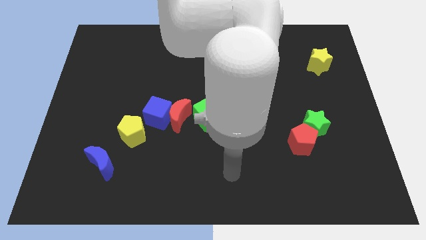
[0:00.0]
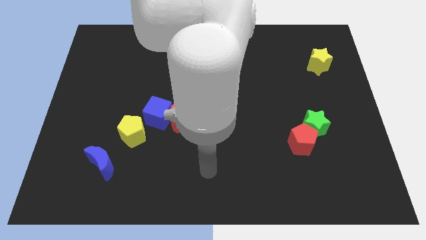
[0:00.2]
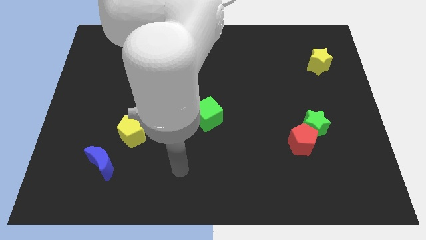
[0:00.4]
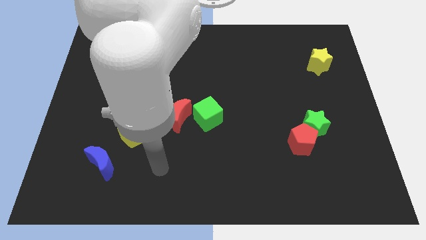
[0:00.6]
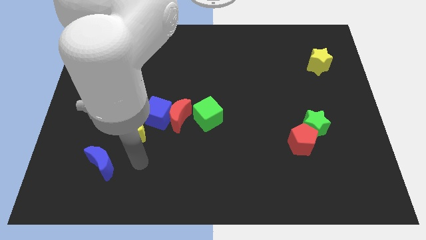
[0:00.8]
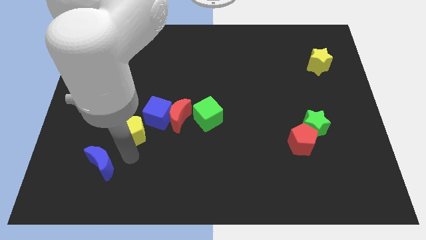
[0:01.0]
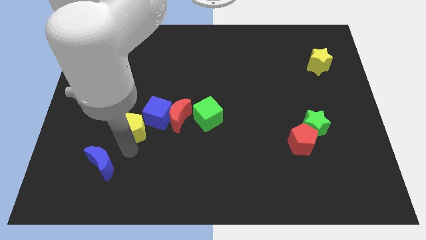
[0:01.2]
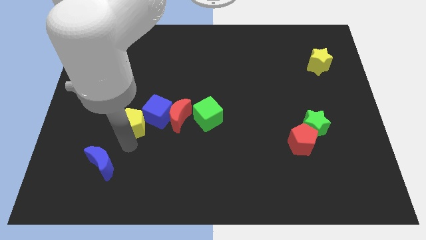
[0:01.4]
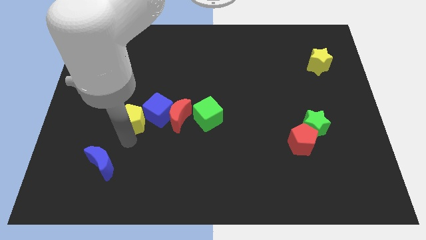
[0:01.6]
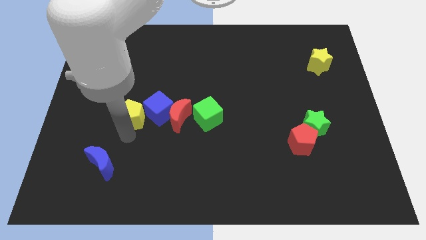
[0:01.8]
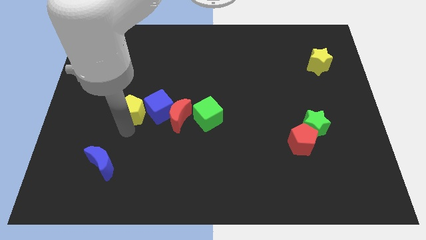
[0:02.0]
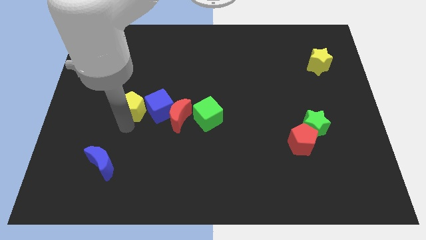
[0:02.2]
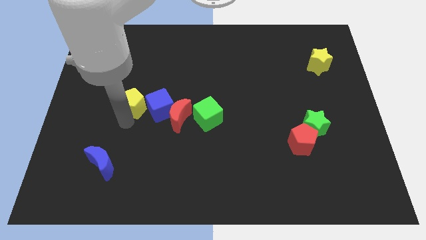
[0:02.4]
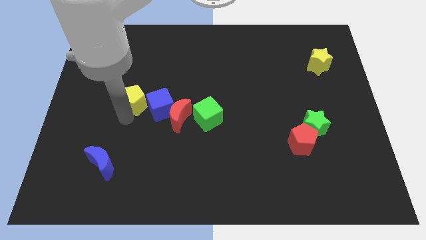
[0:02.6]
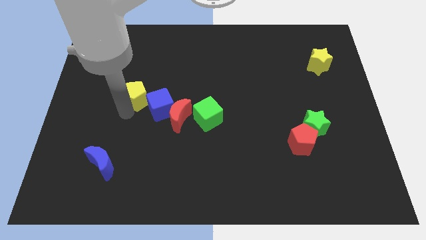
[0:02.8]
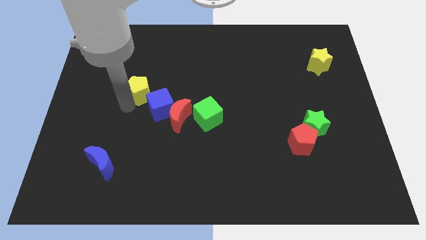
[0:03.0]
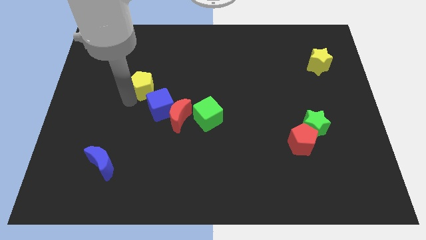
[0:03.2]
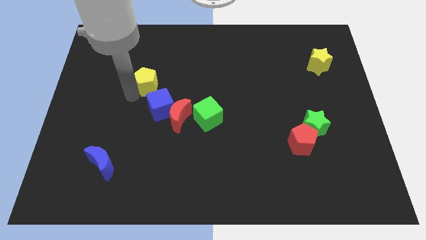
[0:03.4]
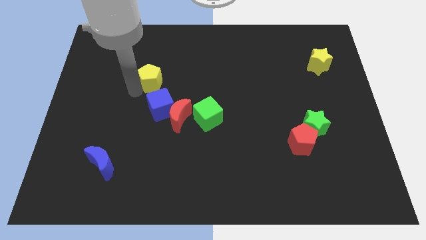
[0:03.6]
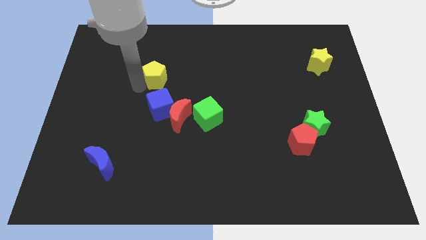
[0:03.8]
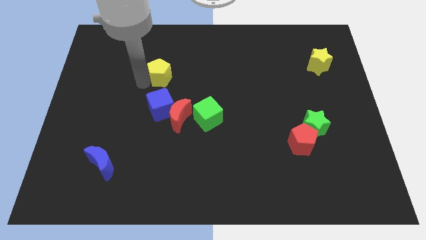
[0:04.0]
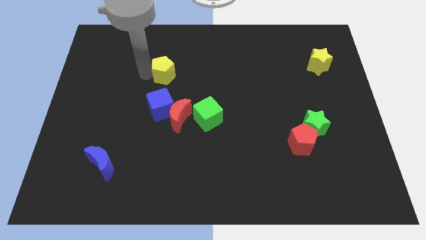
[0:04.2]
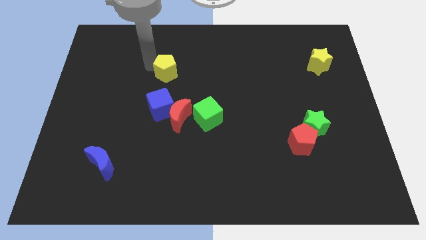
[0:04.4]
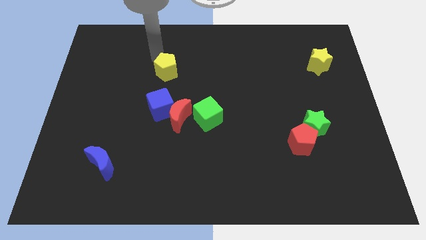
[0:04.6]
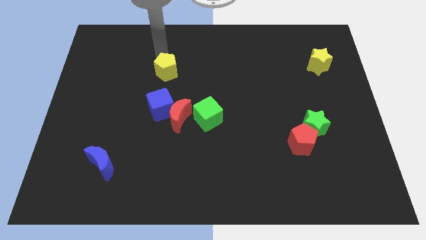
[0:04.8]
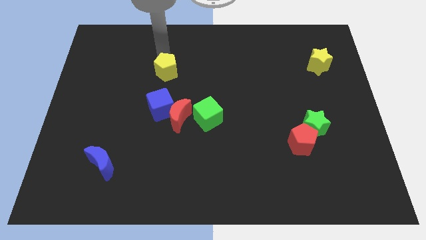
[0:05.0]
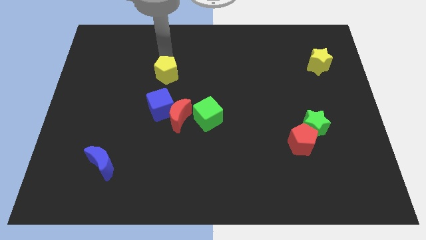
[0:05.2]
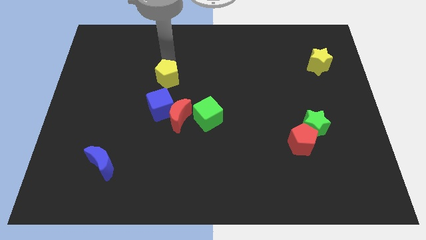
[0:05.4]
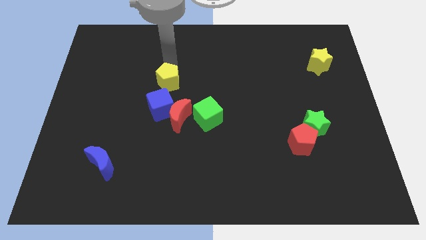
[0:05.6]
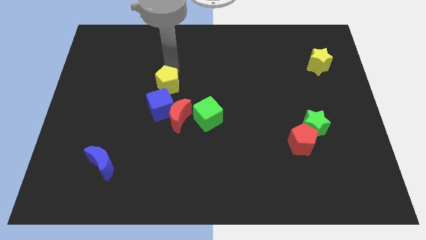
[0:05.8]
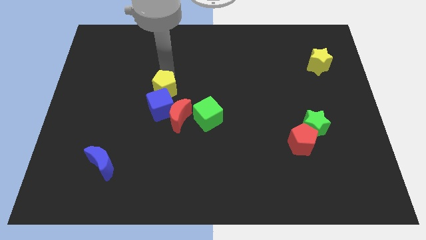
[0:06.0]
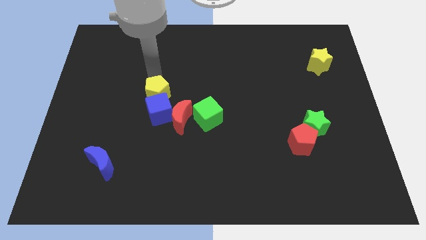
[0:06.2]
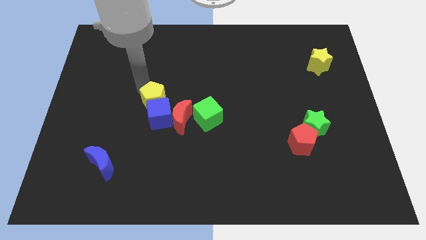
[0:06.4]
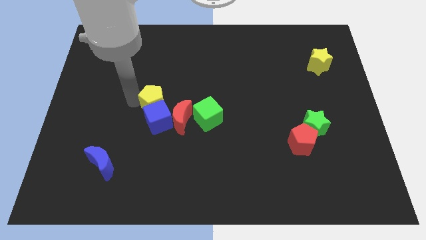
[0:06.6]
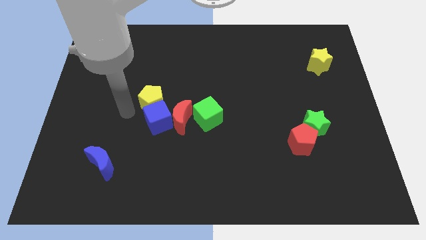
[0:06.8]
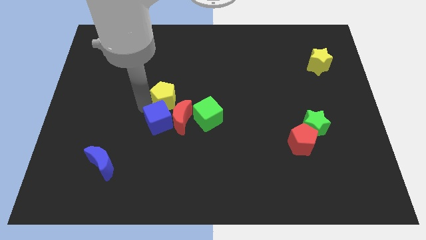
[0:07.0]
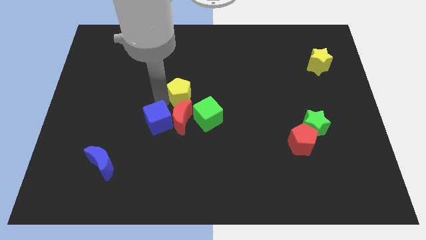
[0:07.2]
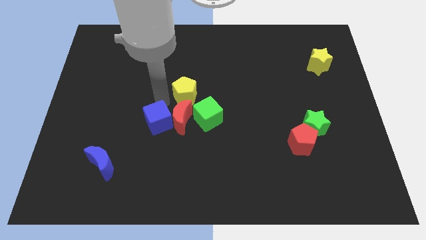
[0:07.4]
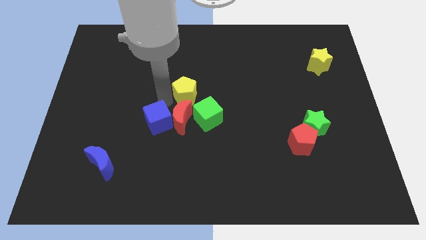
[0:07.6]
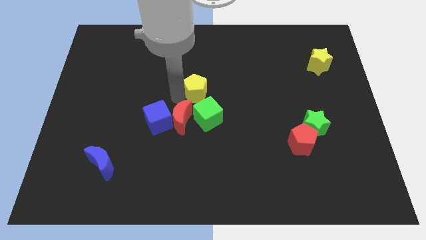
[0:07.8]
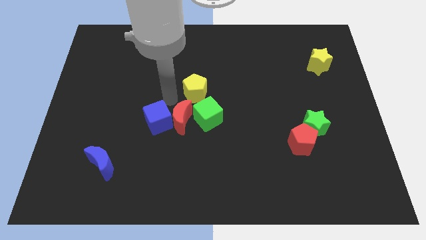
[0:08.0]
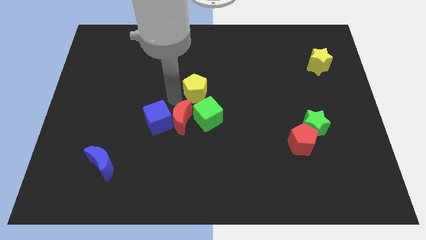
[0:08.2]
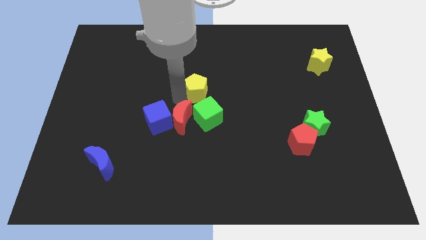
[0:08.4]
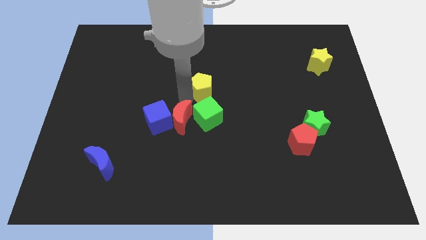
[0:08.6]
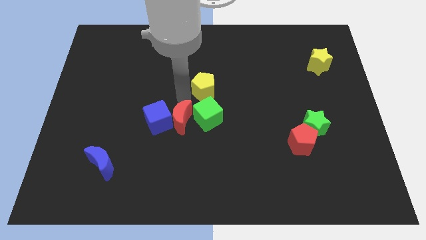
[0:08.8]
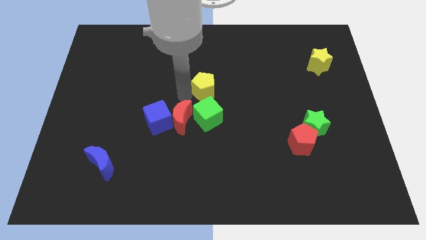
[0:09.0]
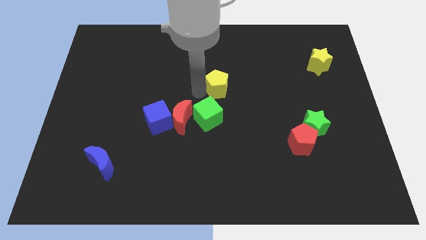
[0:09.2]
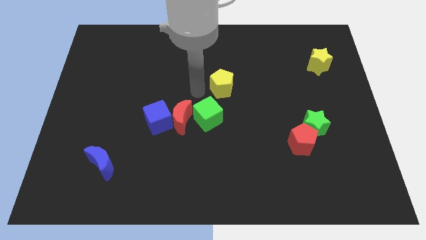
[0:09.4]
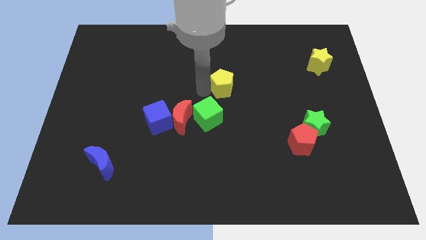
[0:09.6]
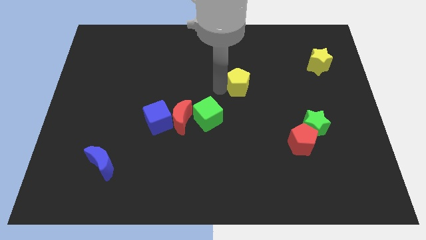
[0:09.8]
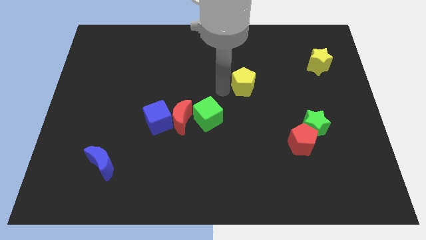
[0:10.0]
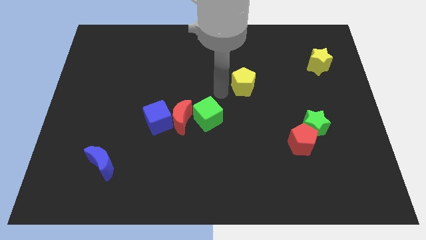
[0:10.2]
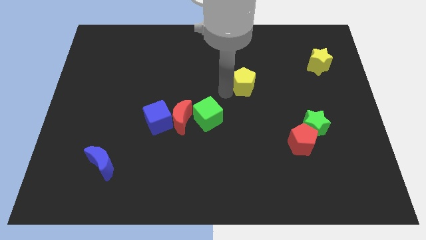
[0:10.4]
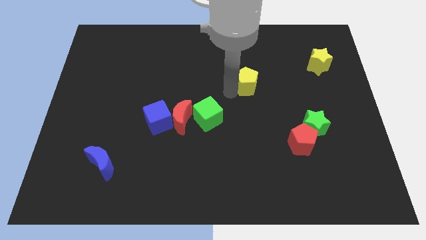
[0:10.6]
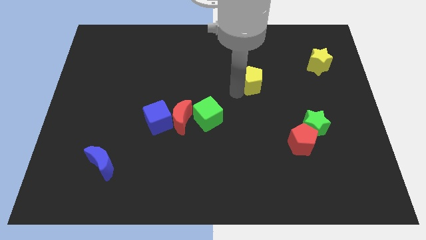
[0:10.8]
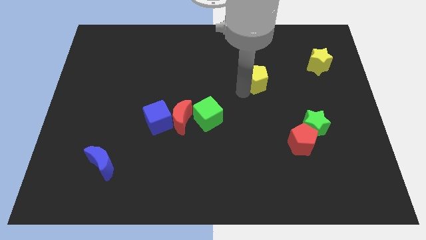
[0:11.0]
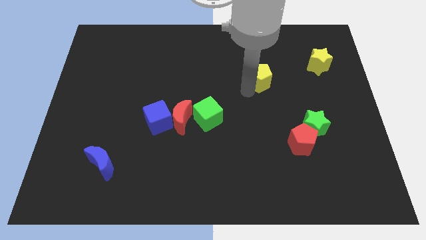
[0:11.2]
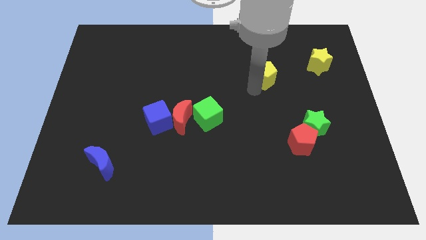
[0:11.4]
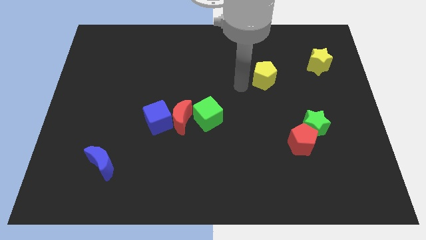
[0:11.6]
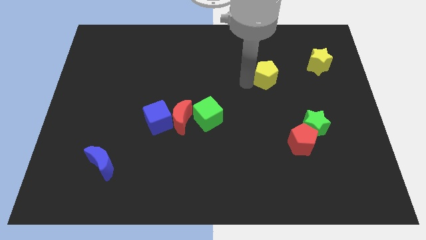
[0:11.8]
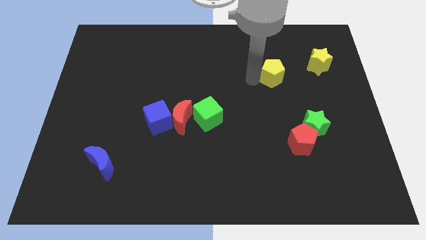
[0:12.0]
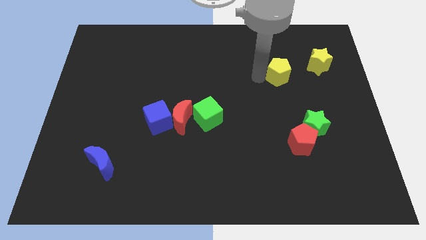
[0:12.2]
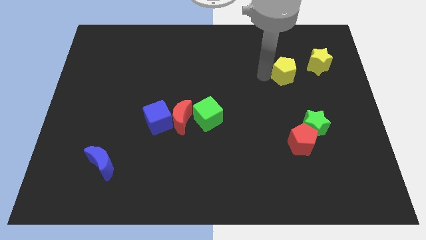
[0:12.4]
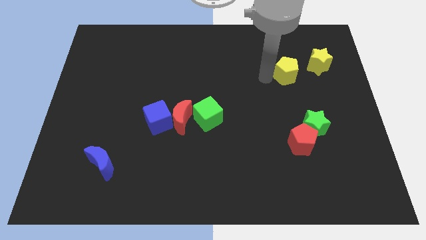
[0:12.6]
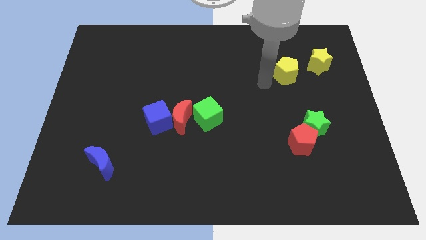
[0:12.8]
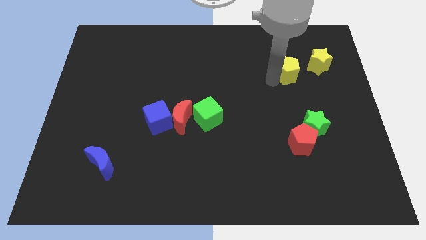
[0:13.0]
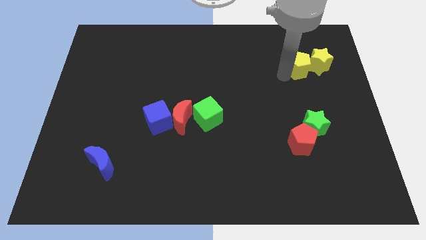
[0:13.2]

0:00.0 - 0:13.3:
move the yellow pentagon next to the yellow star
